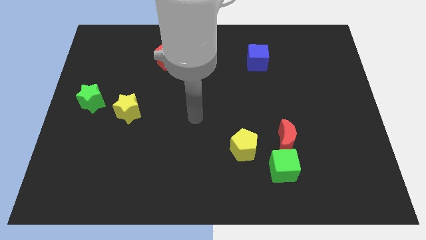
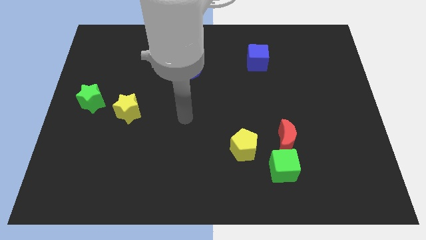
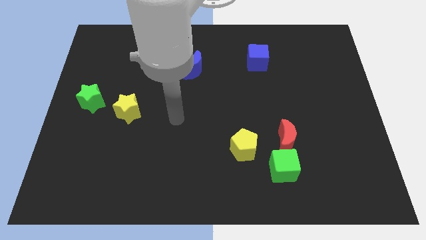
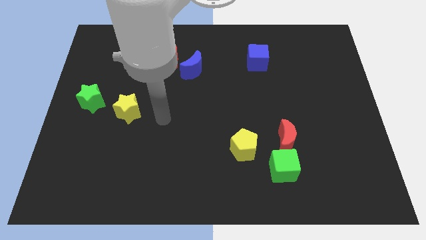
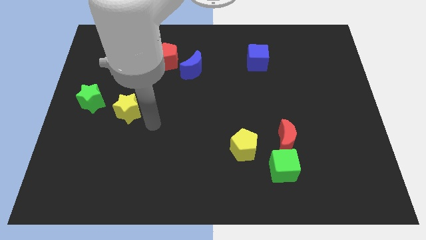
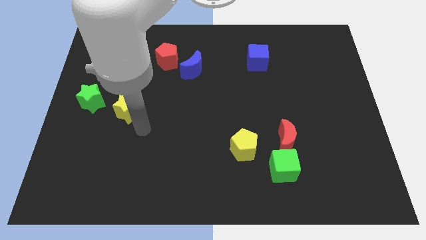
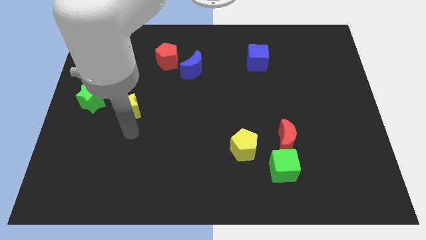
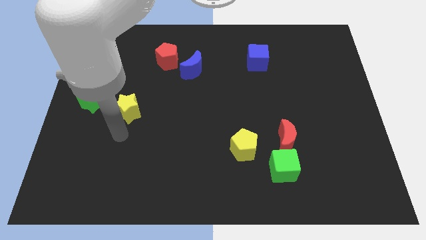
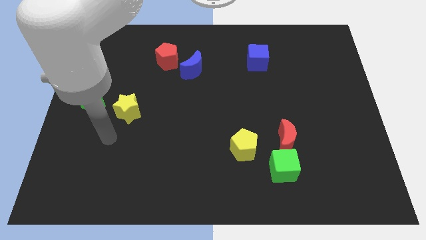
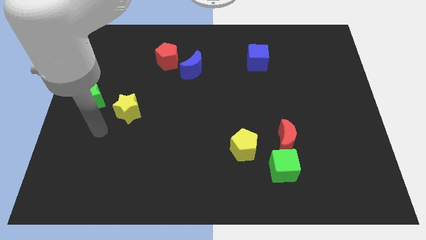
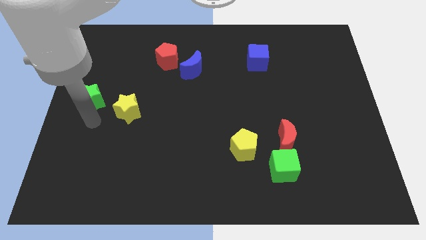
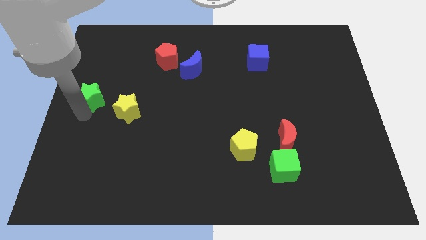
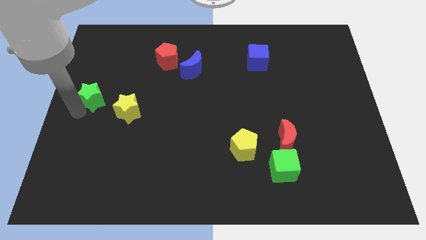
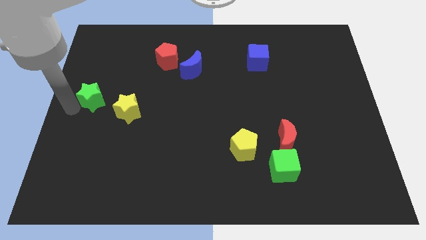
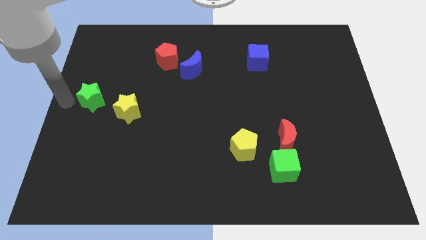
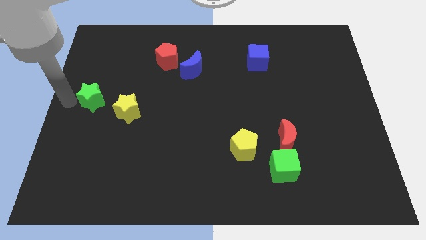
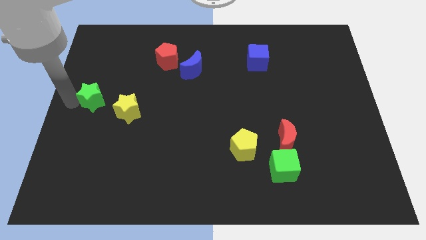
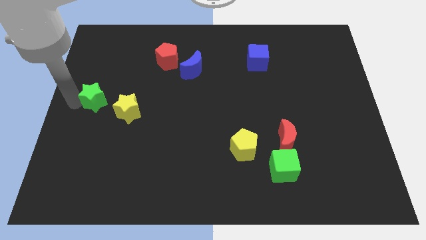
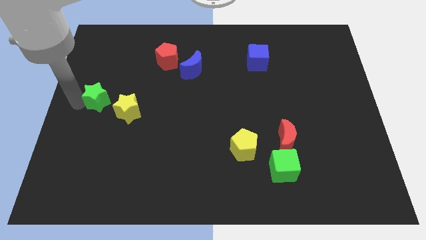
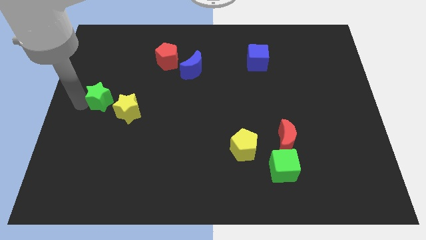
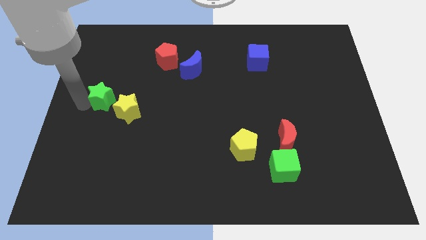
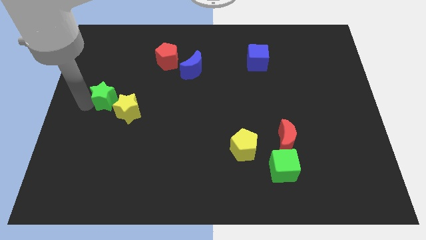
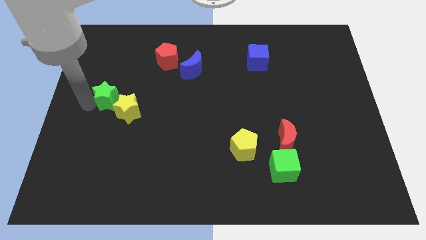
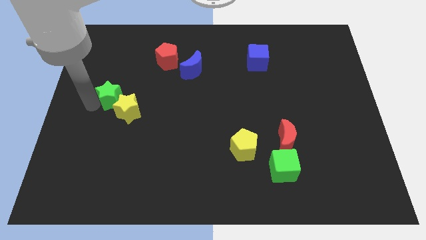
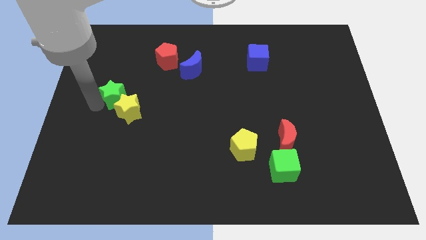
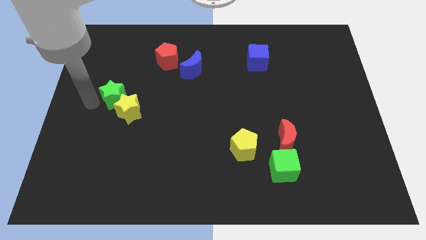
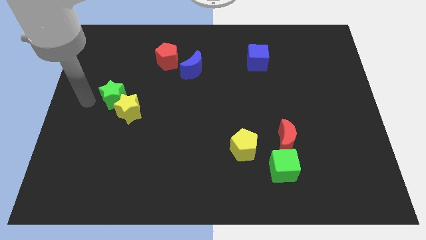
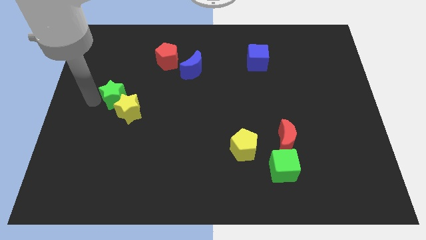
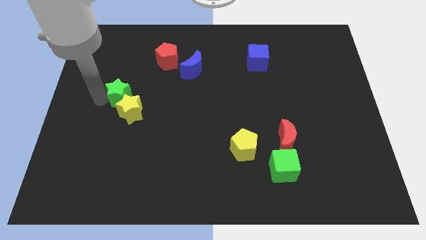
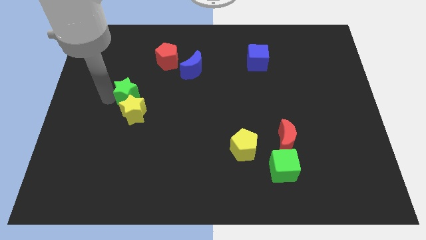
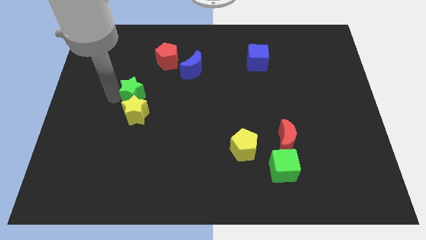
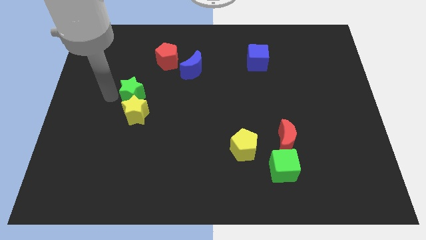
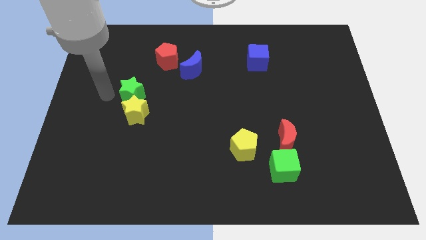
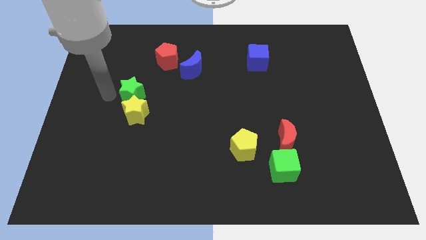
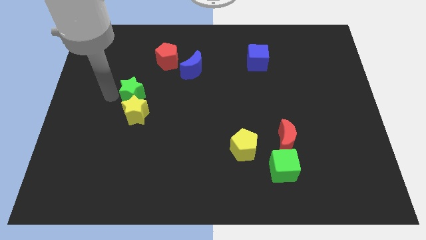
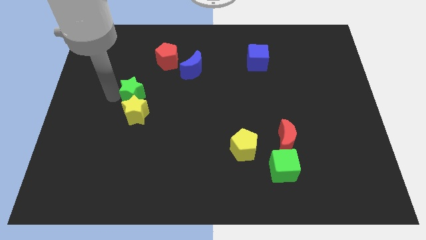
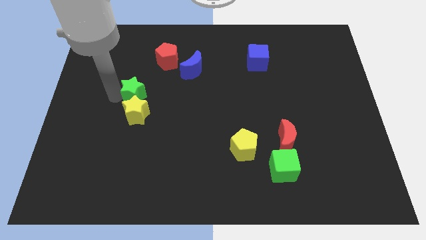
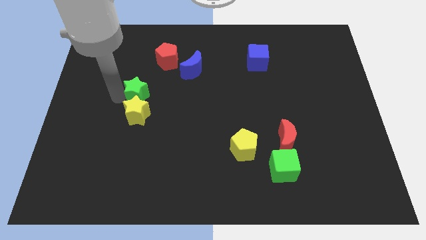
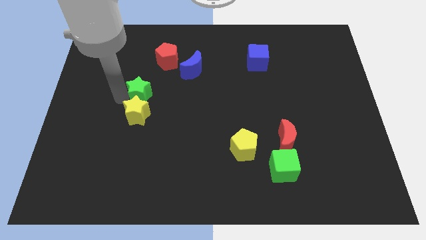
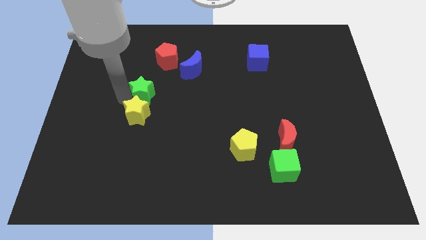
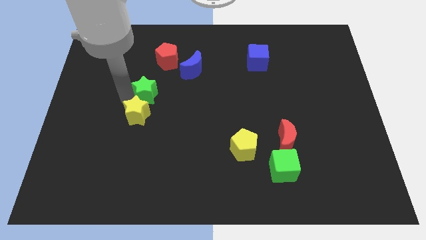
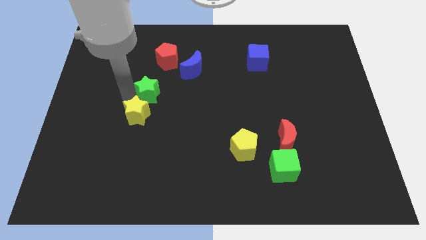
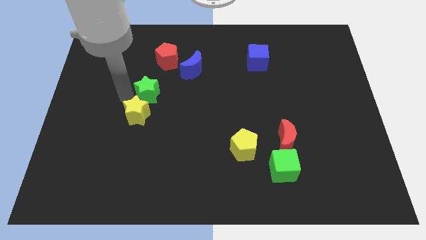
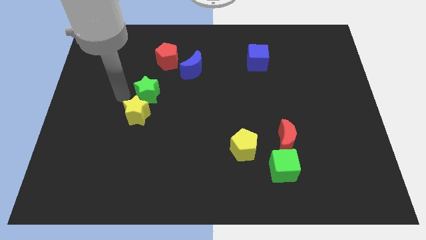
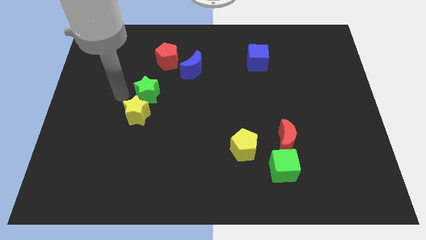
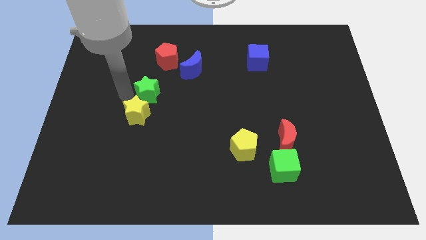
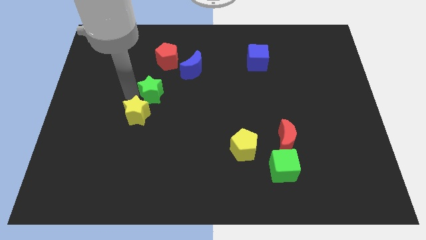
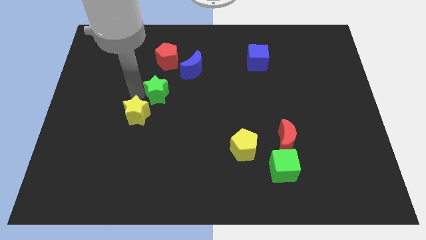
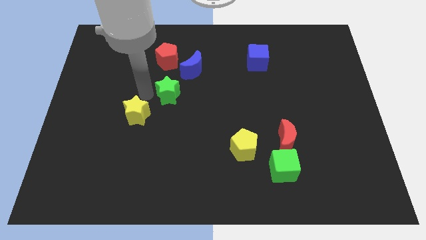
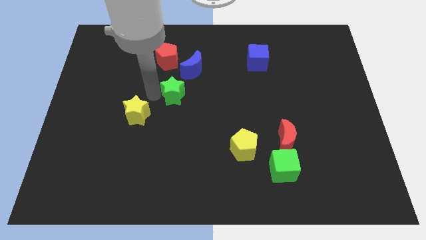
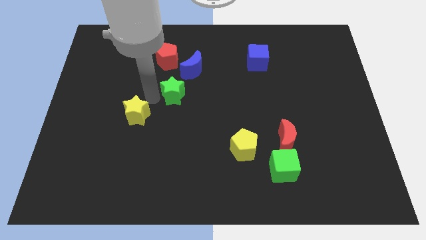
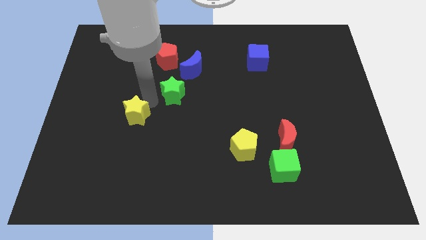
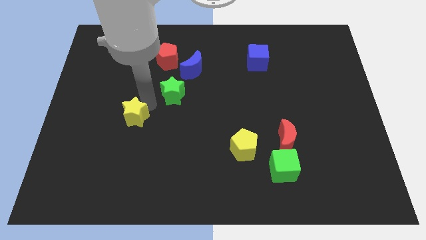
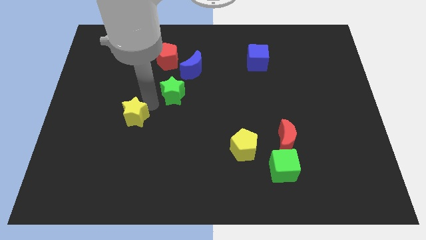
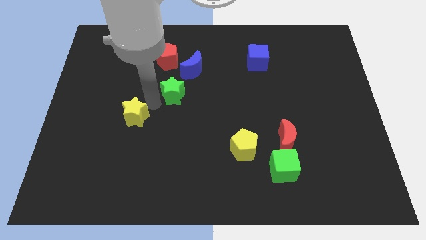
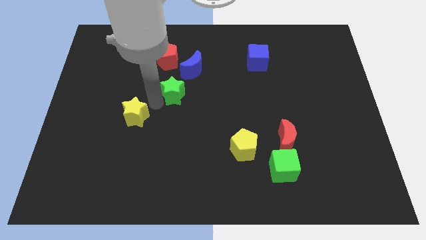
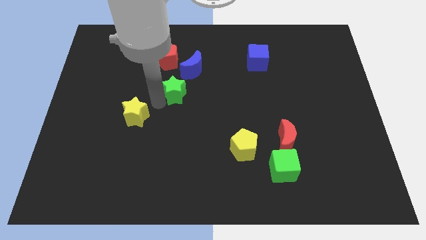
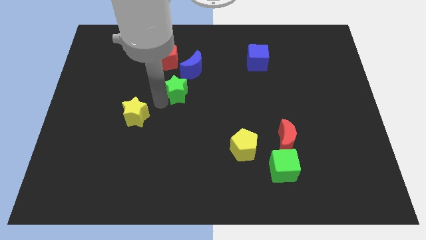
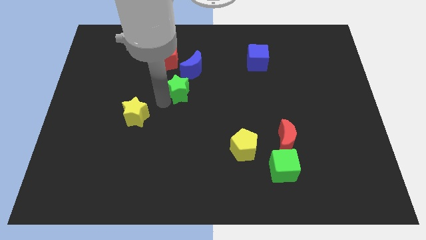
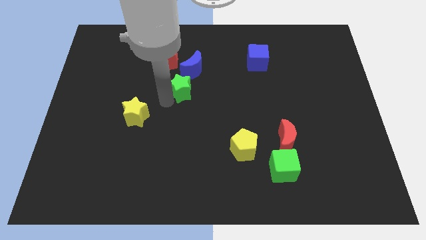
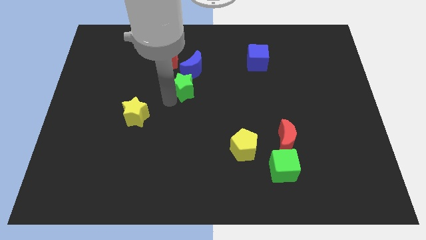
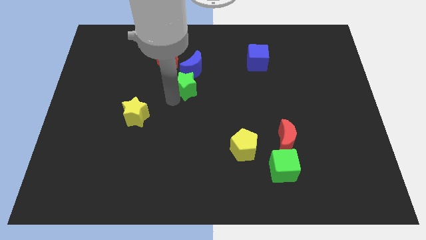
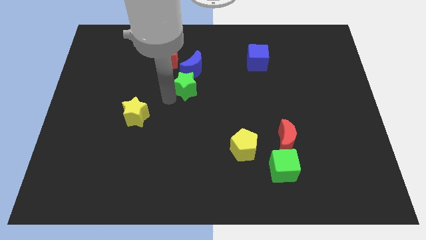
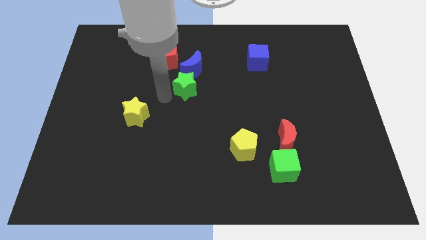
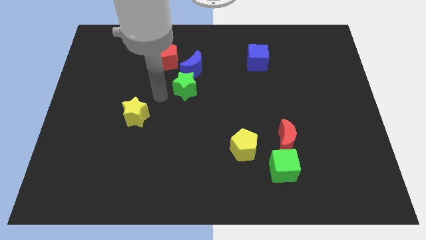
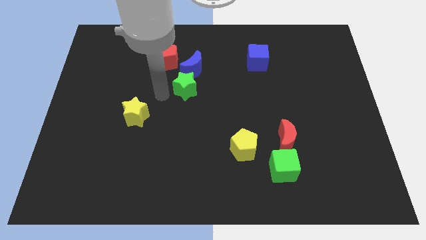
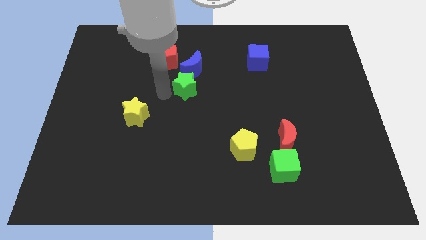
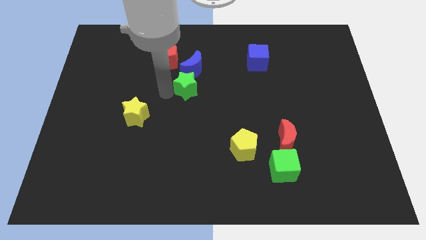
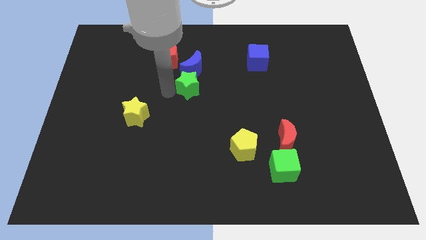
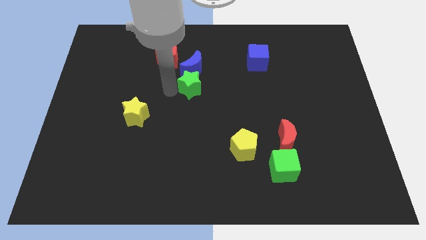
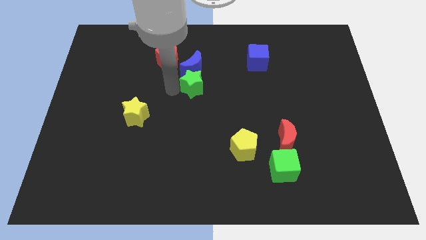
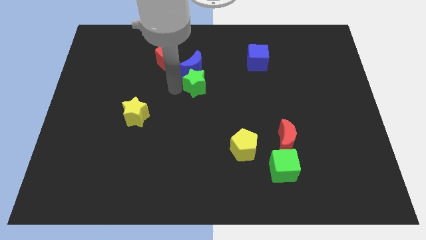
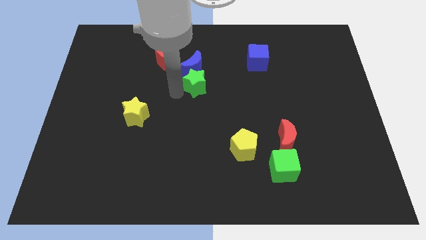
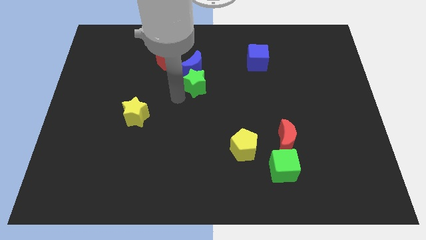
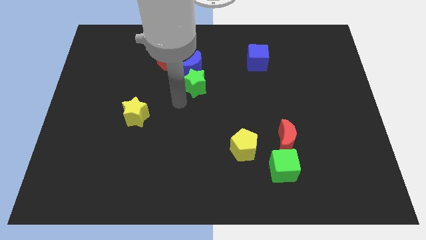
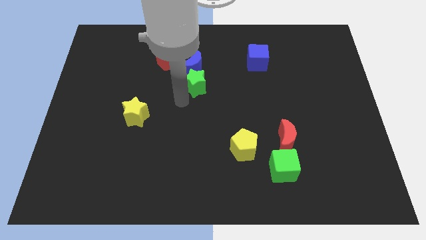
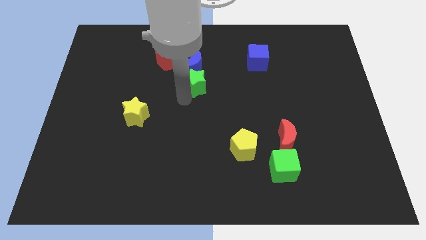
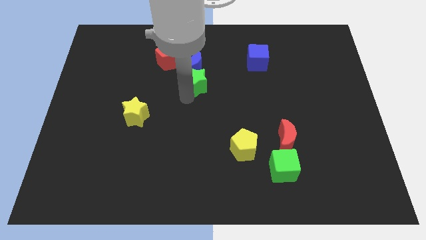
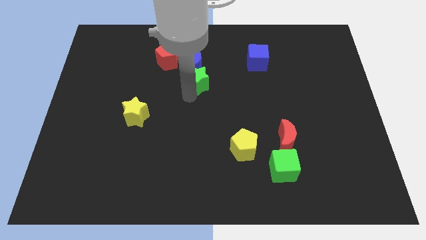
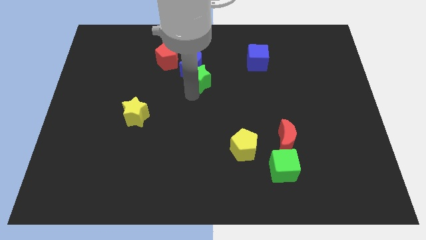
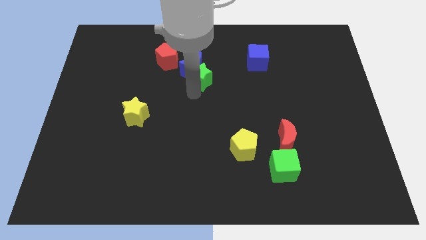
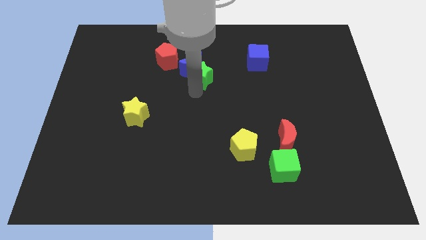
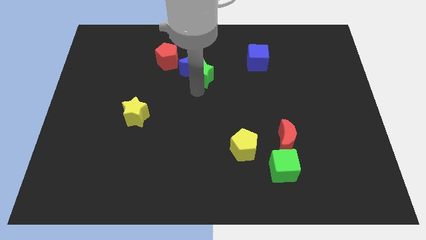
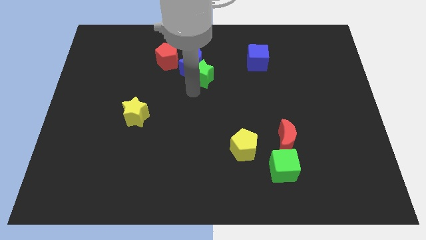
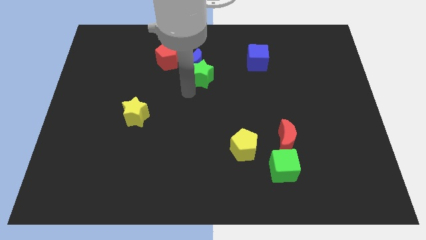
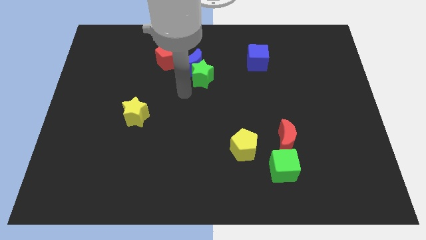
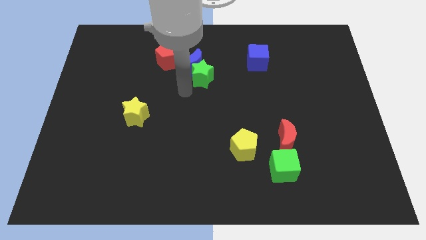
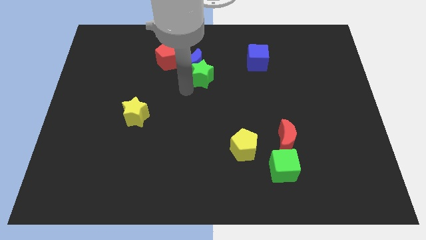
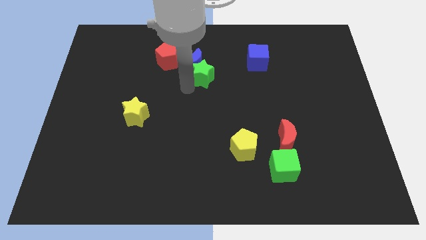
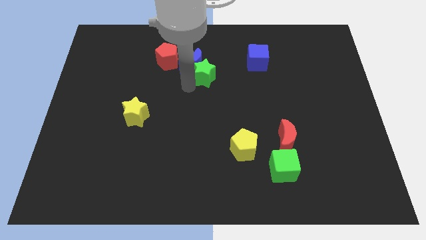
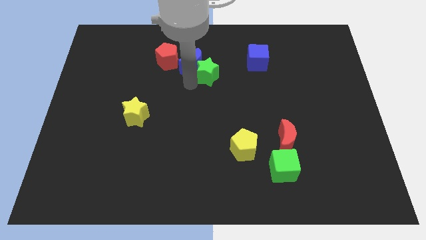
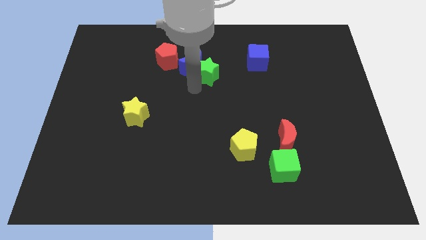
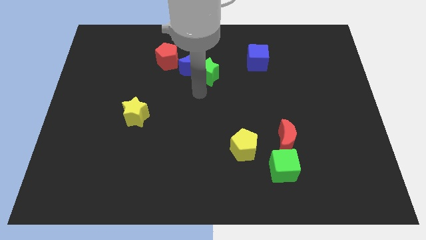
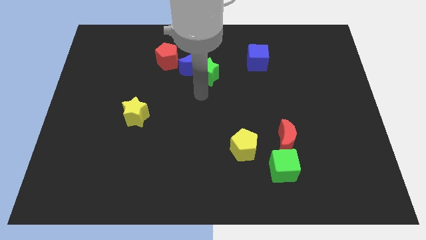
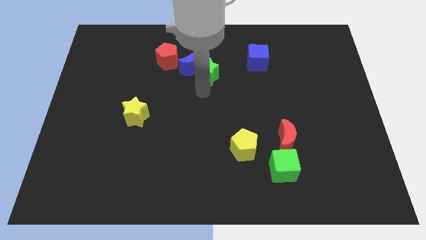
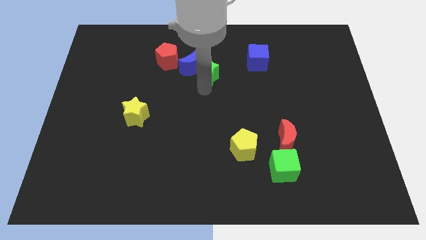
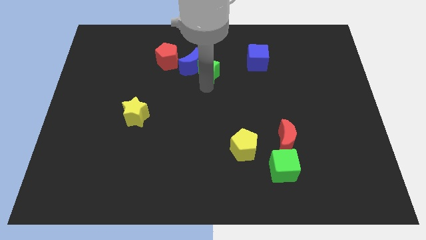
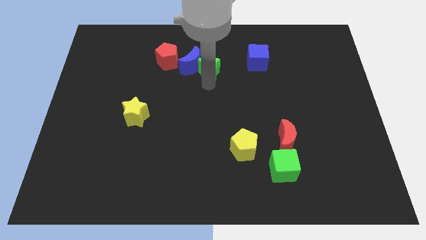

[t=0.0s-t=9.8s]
push the green star to the top right of the blue moon
